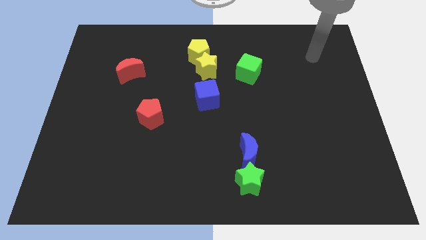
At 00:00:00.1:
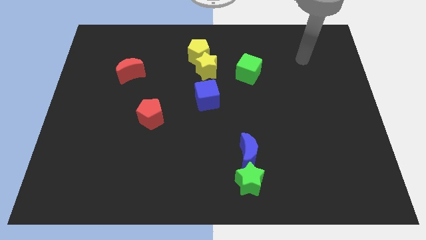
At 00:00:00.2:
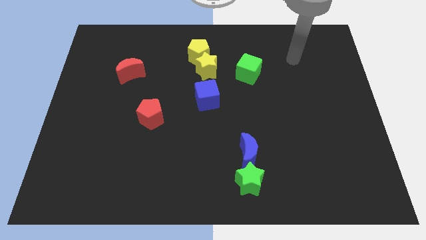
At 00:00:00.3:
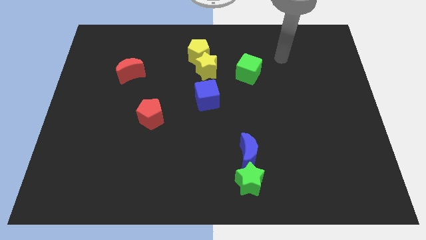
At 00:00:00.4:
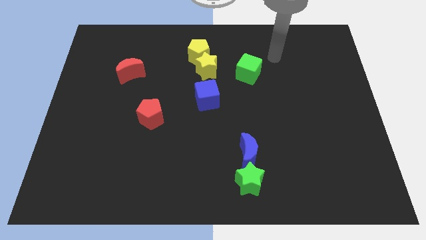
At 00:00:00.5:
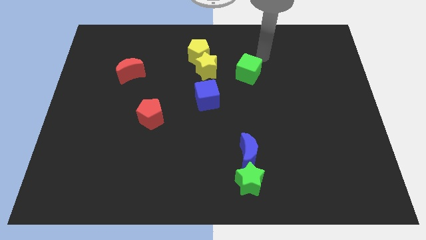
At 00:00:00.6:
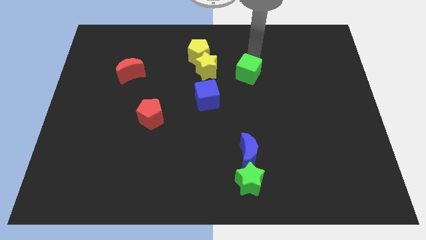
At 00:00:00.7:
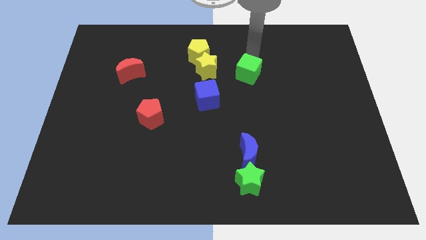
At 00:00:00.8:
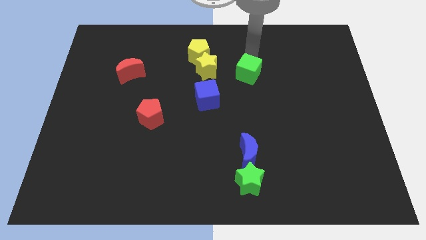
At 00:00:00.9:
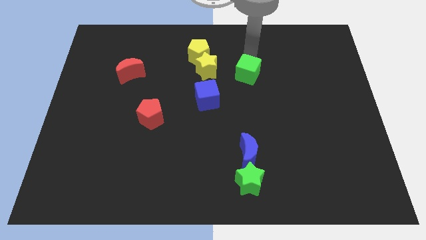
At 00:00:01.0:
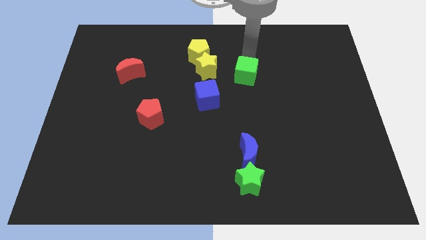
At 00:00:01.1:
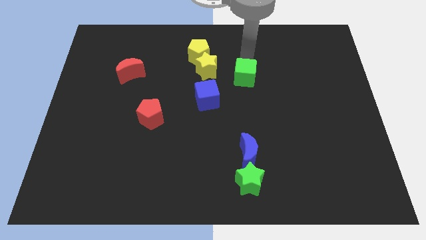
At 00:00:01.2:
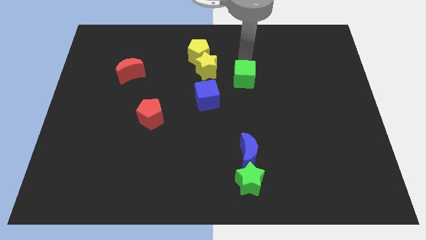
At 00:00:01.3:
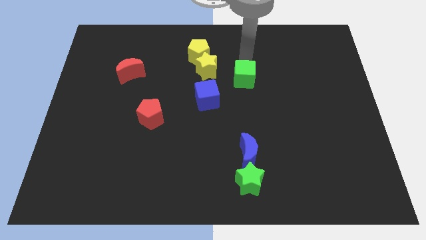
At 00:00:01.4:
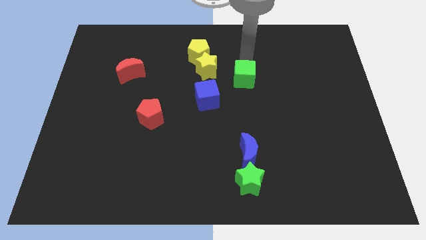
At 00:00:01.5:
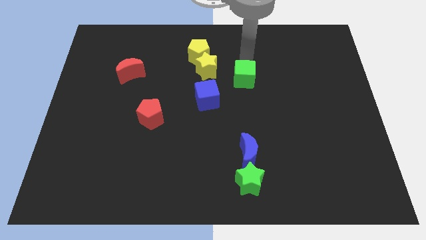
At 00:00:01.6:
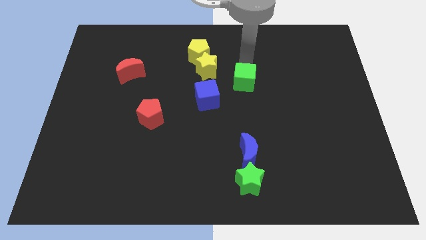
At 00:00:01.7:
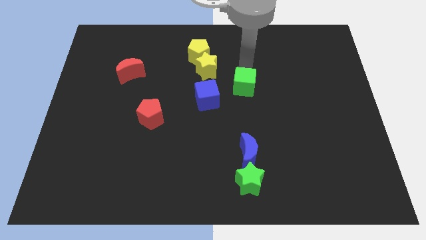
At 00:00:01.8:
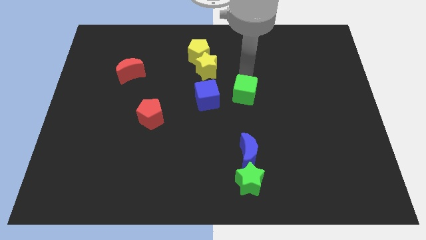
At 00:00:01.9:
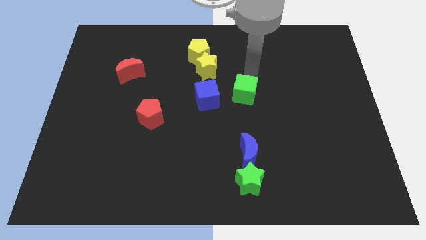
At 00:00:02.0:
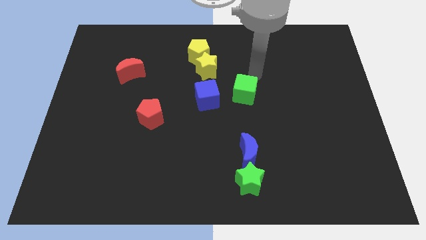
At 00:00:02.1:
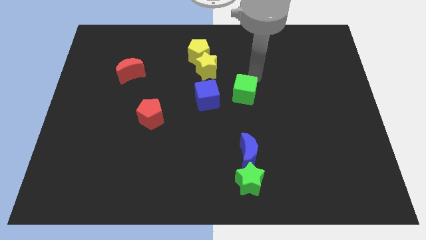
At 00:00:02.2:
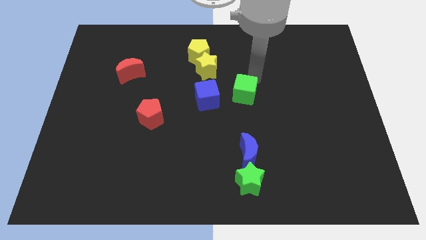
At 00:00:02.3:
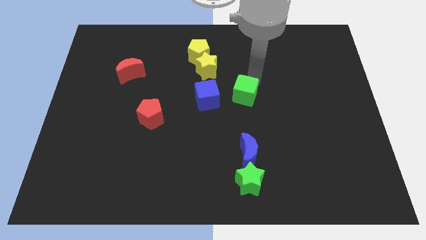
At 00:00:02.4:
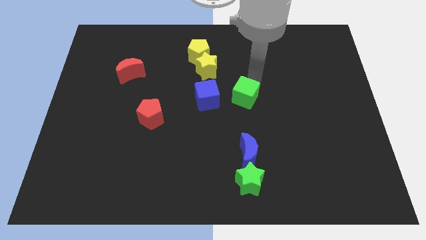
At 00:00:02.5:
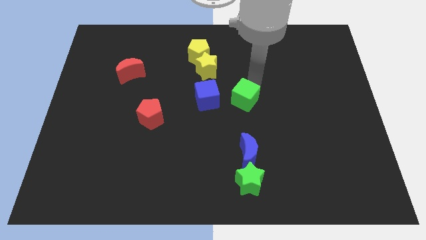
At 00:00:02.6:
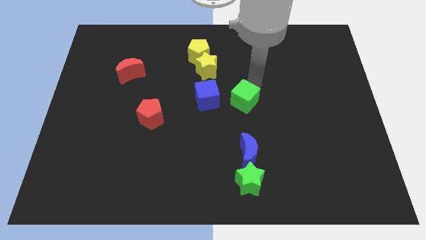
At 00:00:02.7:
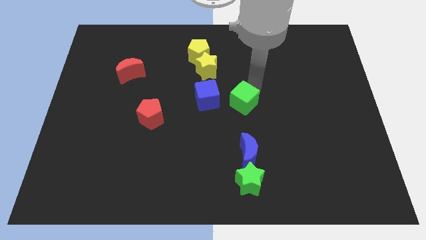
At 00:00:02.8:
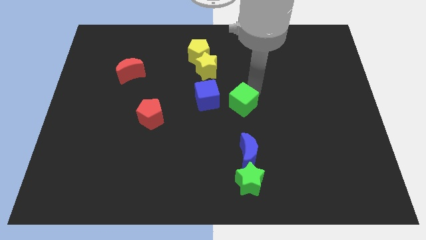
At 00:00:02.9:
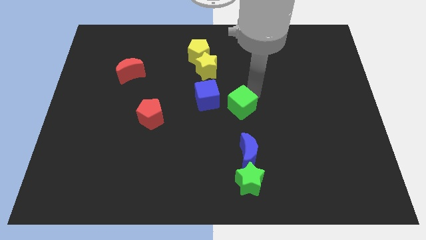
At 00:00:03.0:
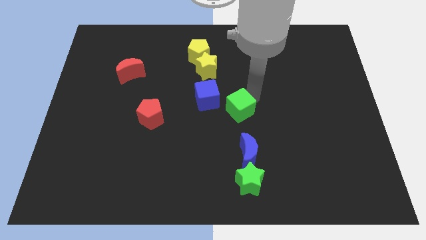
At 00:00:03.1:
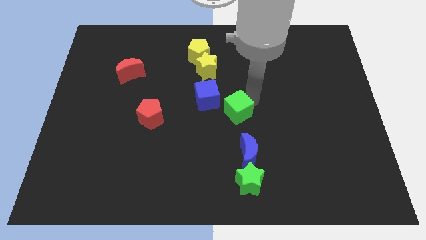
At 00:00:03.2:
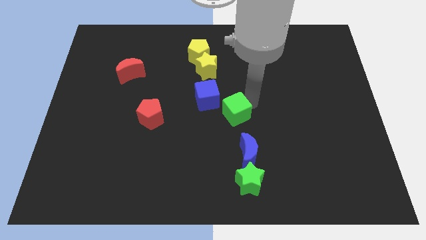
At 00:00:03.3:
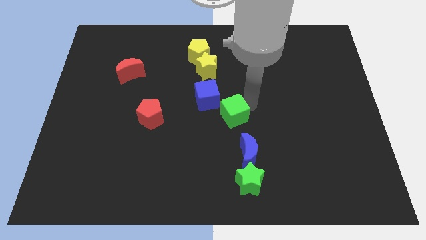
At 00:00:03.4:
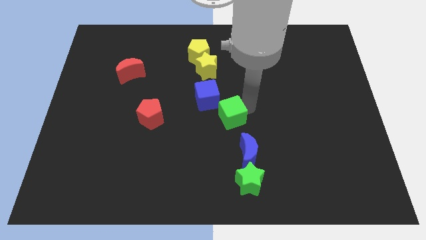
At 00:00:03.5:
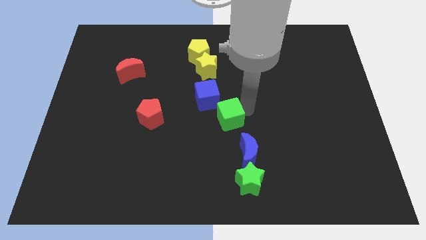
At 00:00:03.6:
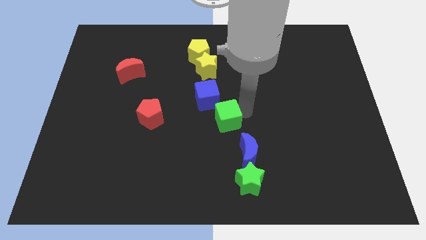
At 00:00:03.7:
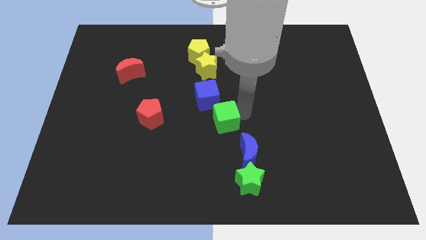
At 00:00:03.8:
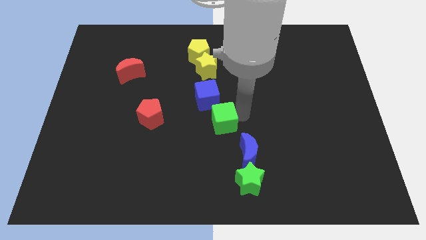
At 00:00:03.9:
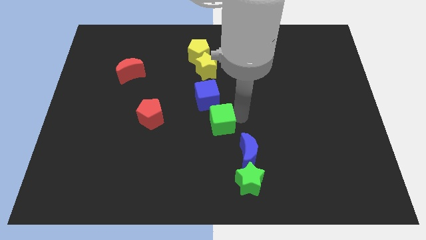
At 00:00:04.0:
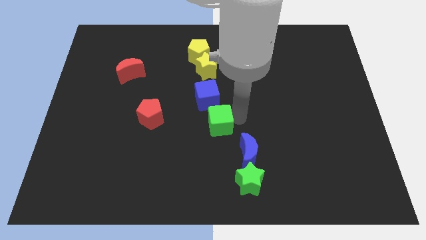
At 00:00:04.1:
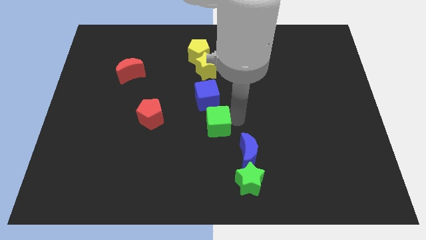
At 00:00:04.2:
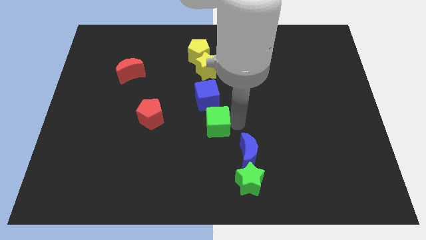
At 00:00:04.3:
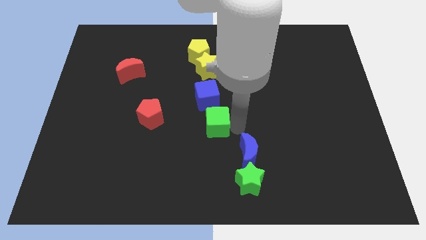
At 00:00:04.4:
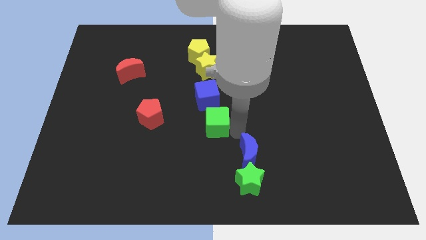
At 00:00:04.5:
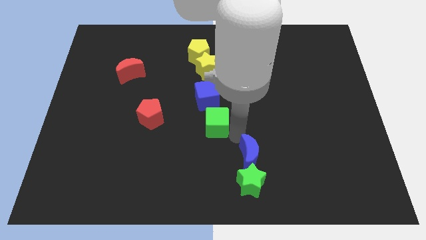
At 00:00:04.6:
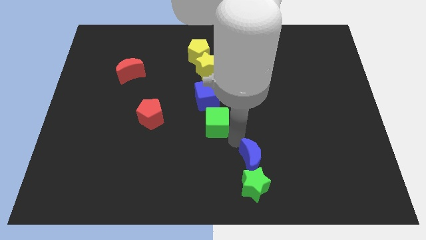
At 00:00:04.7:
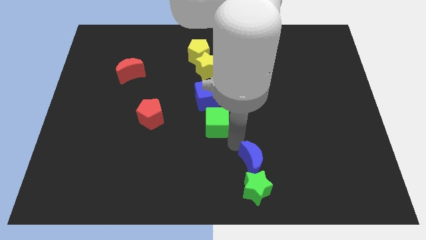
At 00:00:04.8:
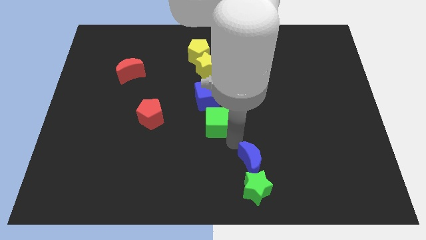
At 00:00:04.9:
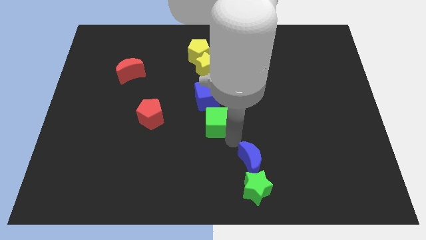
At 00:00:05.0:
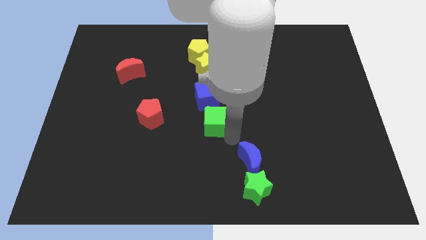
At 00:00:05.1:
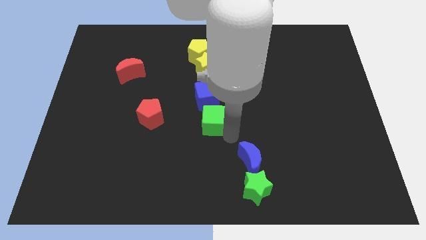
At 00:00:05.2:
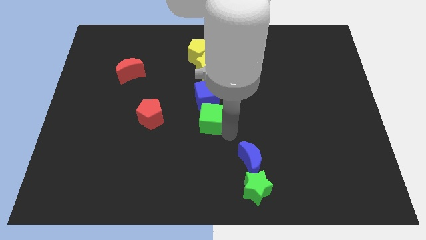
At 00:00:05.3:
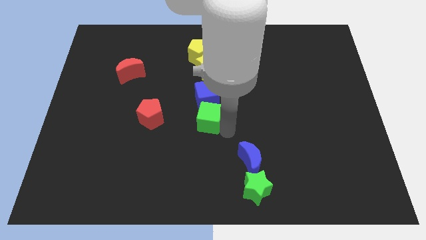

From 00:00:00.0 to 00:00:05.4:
push the green cube to the bottom side of the yellow star

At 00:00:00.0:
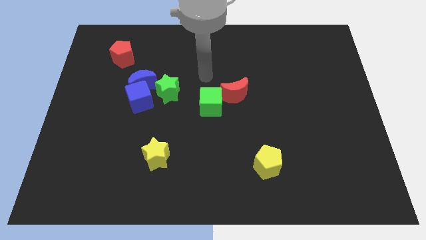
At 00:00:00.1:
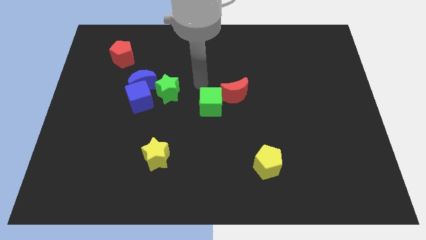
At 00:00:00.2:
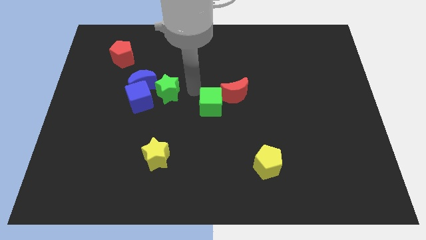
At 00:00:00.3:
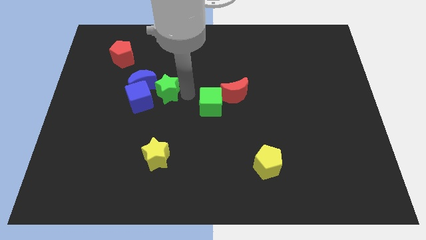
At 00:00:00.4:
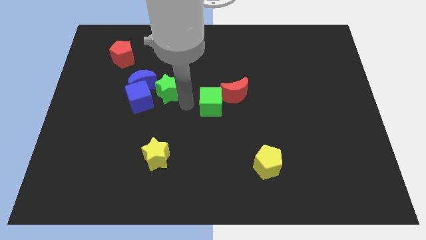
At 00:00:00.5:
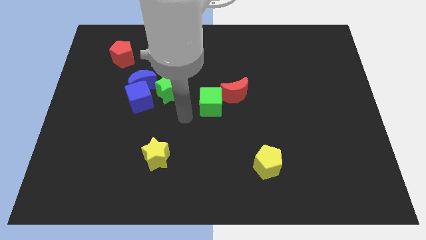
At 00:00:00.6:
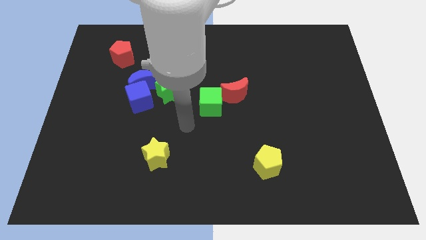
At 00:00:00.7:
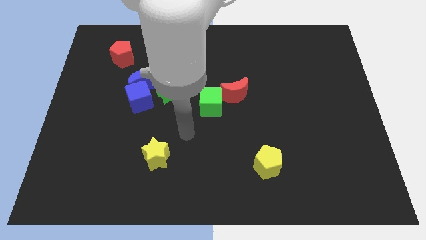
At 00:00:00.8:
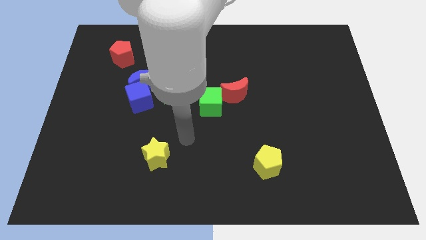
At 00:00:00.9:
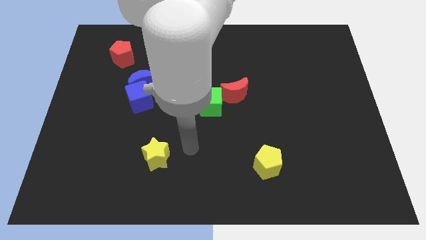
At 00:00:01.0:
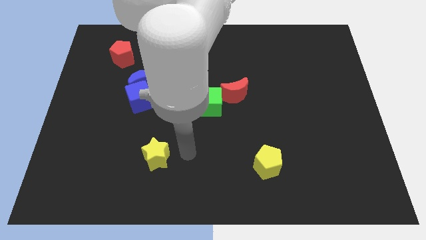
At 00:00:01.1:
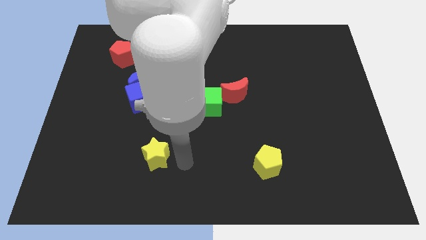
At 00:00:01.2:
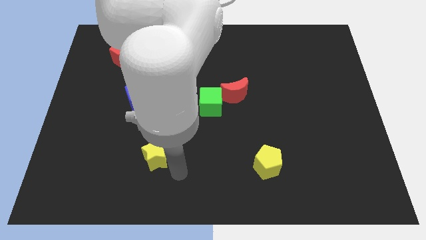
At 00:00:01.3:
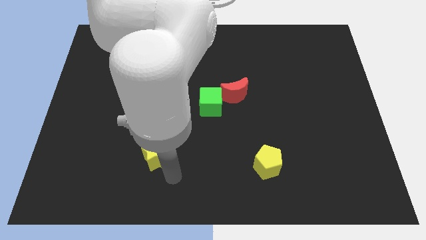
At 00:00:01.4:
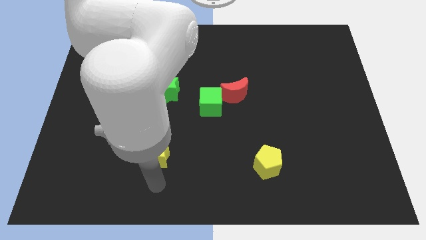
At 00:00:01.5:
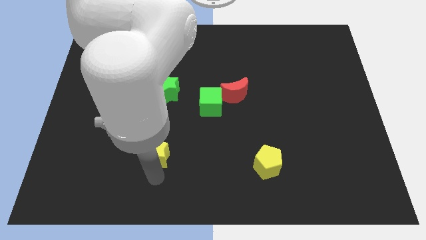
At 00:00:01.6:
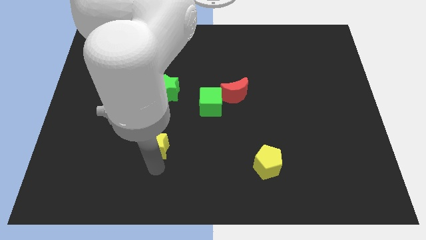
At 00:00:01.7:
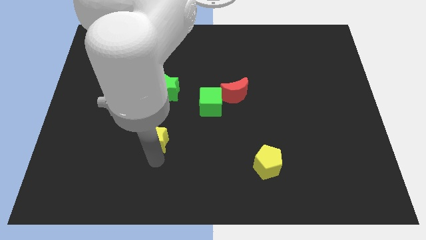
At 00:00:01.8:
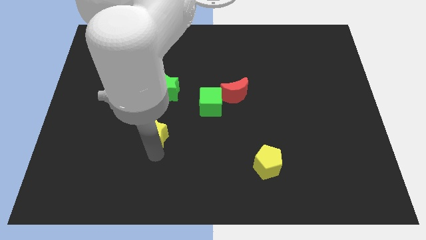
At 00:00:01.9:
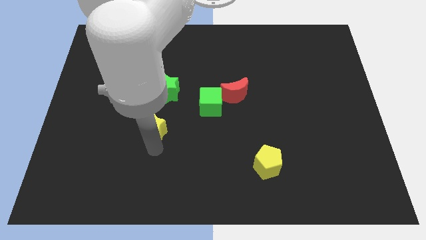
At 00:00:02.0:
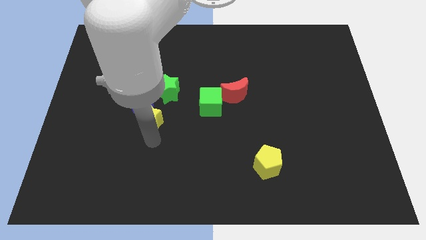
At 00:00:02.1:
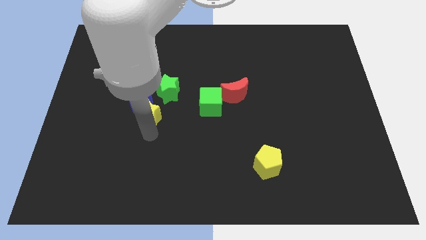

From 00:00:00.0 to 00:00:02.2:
put the yellow star to the left side of the green cube
